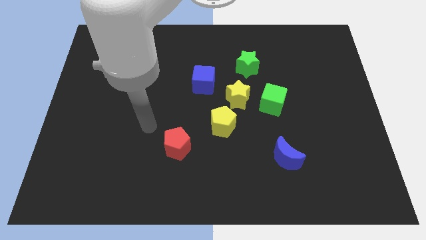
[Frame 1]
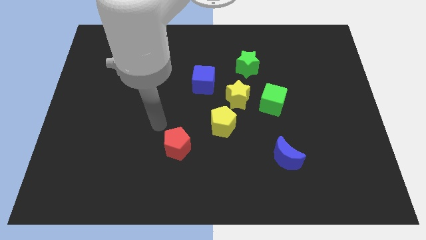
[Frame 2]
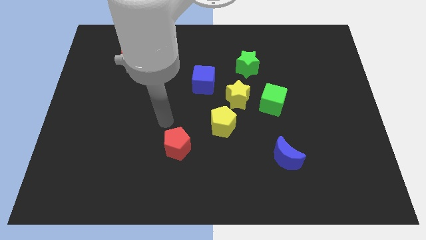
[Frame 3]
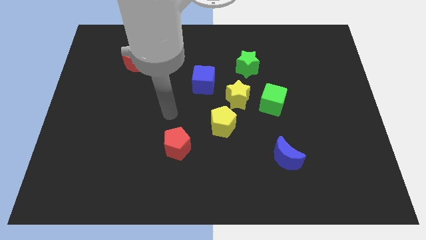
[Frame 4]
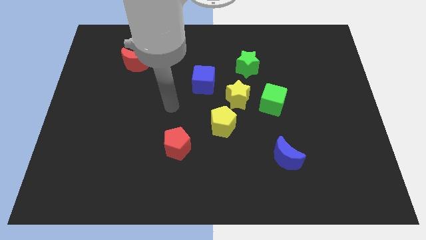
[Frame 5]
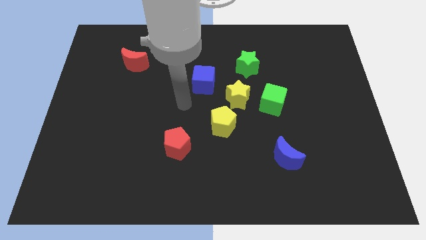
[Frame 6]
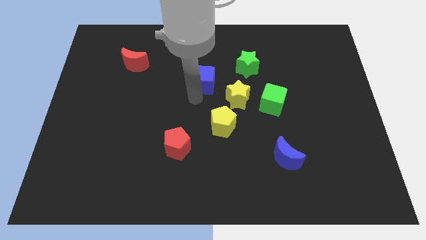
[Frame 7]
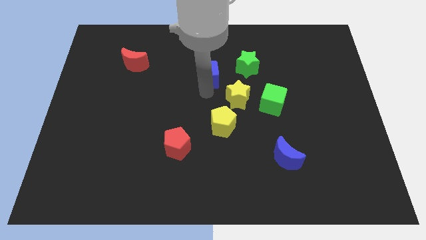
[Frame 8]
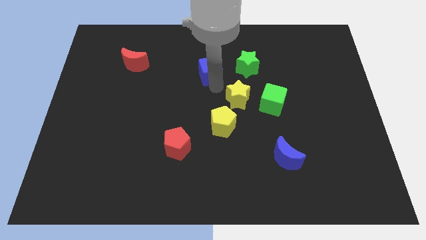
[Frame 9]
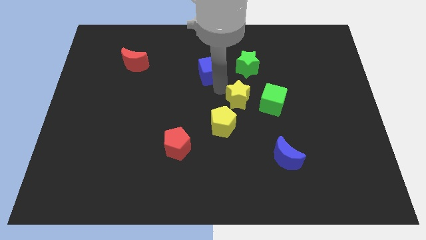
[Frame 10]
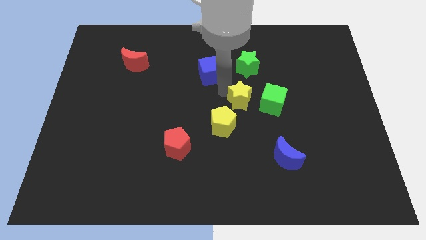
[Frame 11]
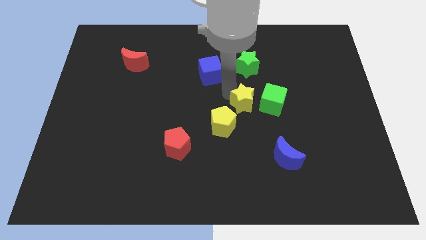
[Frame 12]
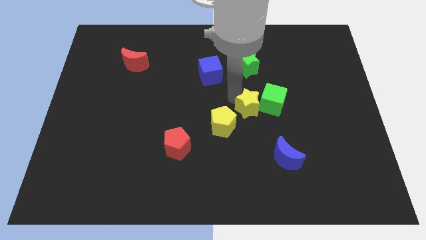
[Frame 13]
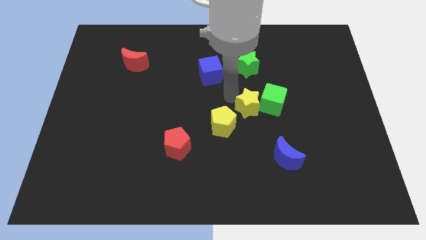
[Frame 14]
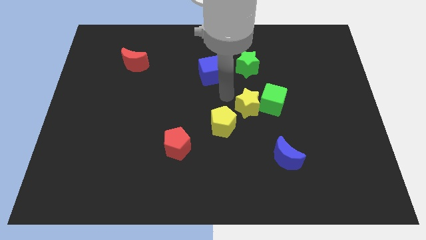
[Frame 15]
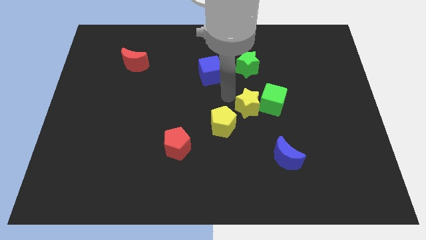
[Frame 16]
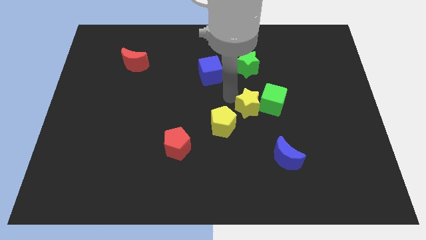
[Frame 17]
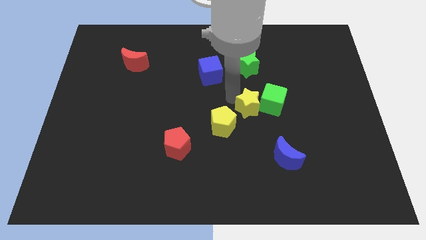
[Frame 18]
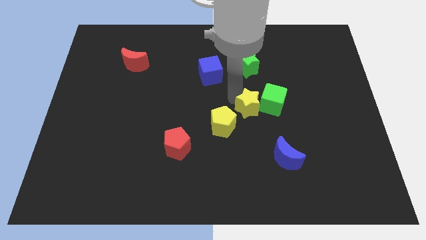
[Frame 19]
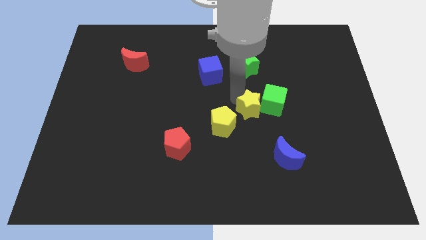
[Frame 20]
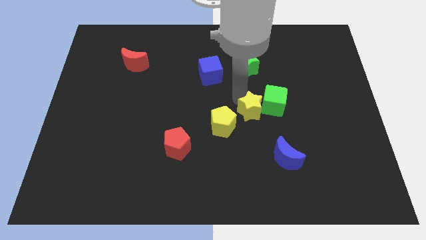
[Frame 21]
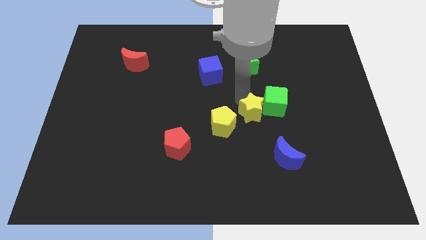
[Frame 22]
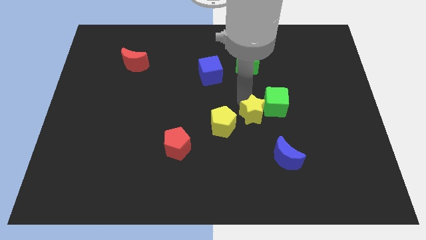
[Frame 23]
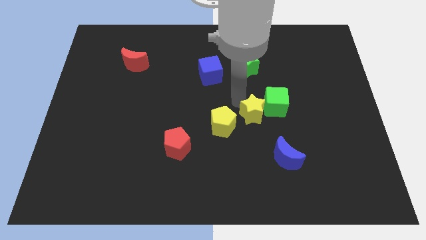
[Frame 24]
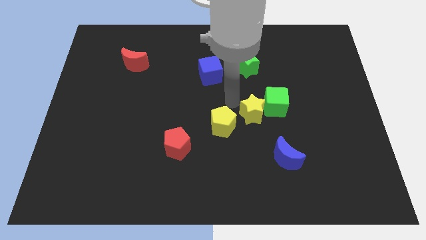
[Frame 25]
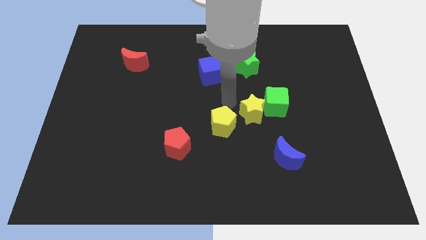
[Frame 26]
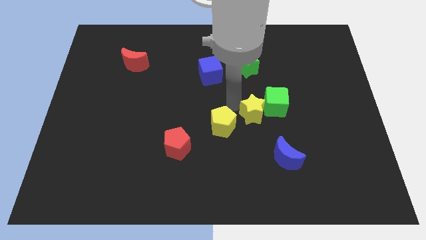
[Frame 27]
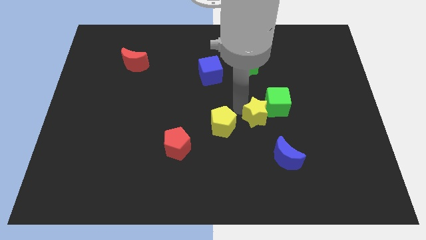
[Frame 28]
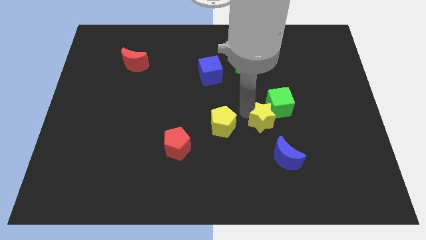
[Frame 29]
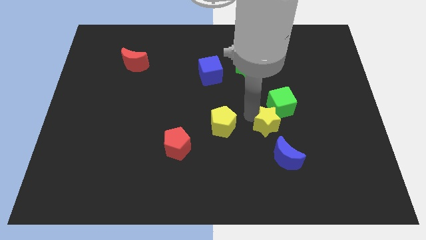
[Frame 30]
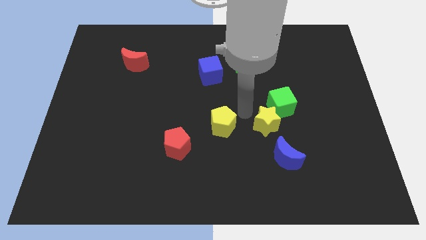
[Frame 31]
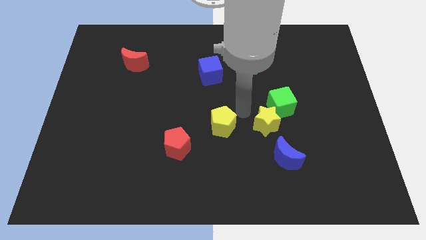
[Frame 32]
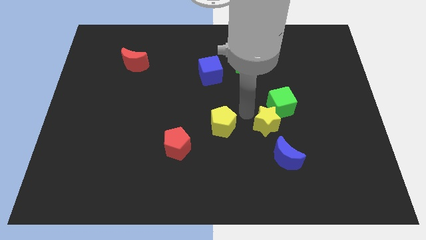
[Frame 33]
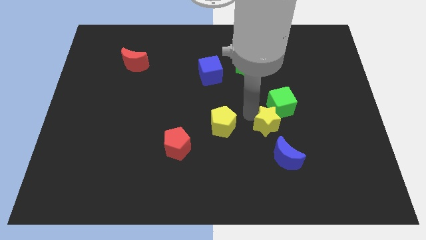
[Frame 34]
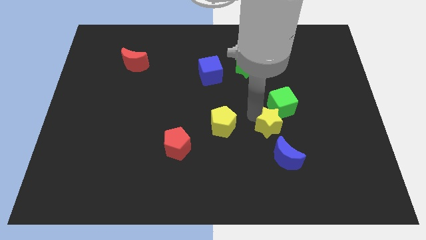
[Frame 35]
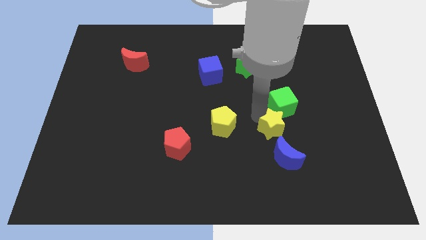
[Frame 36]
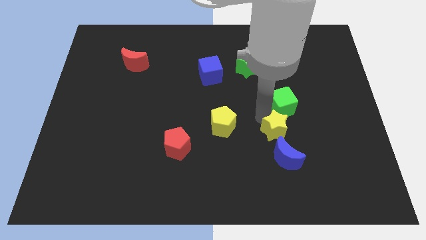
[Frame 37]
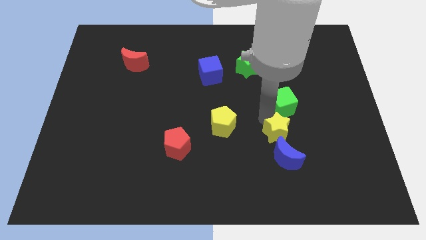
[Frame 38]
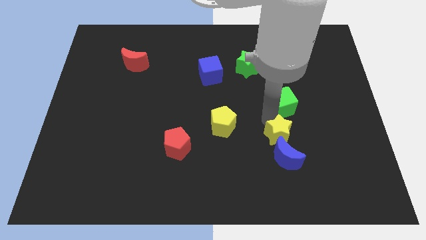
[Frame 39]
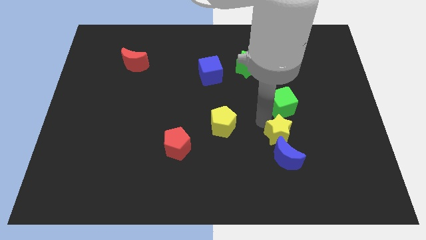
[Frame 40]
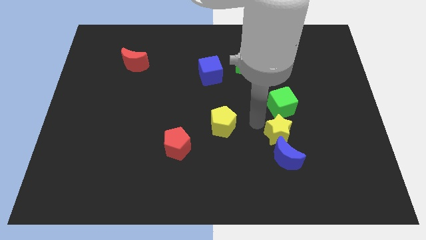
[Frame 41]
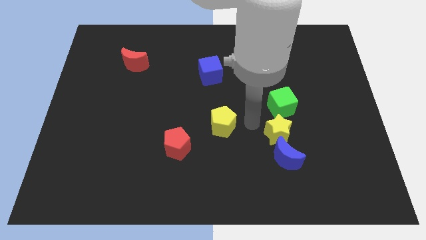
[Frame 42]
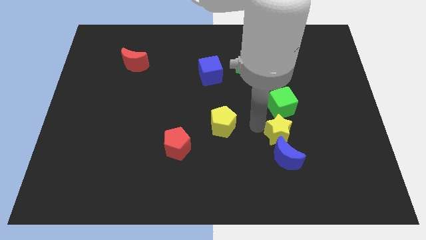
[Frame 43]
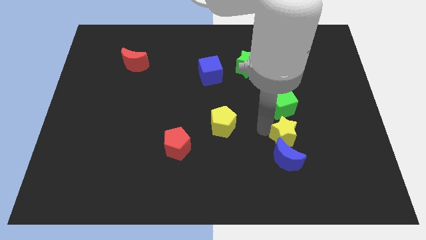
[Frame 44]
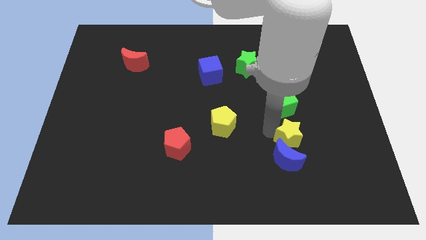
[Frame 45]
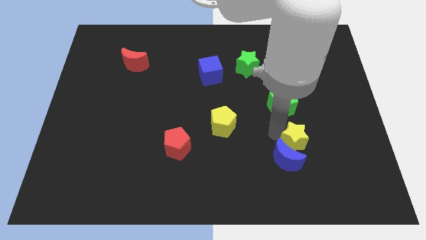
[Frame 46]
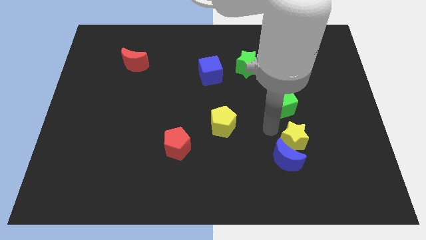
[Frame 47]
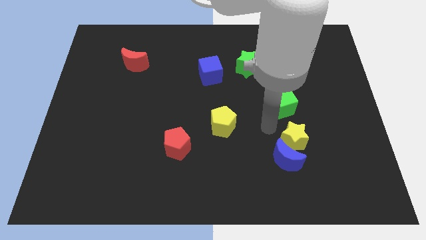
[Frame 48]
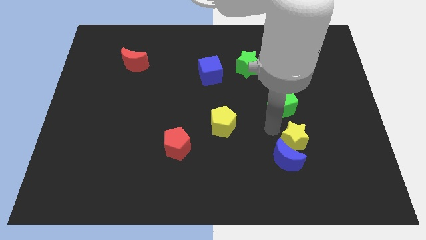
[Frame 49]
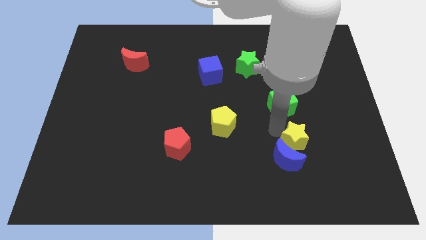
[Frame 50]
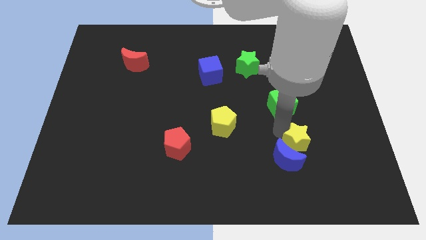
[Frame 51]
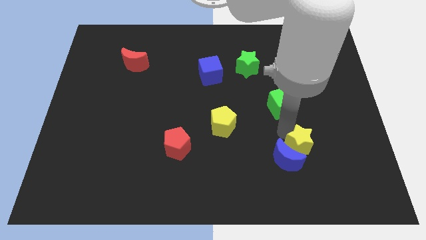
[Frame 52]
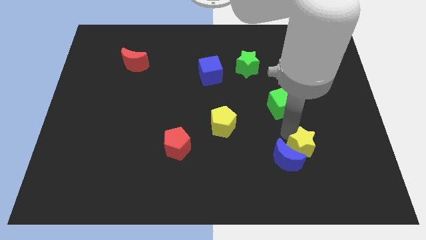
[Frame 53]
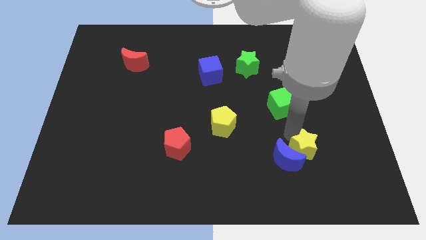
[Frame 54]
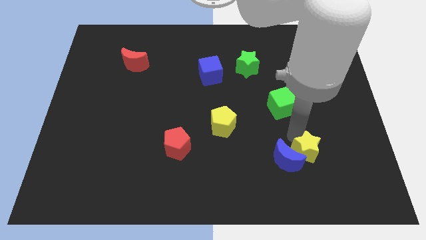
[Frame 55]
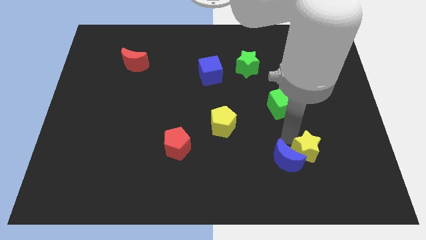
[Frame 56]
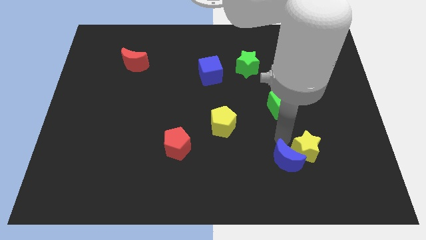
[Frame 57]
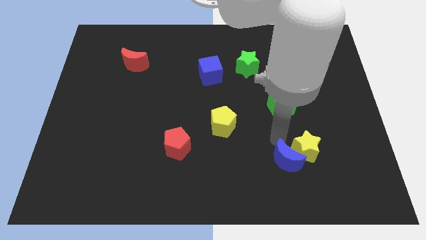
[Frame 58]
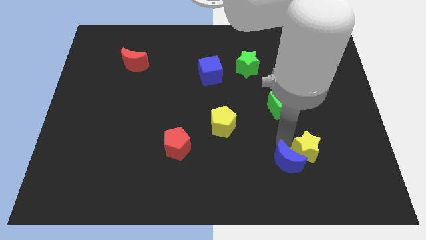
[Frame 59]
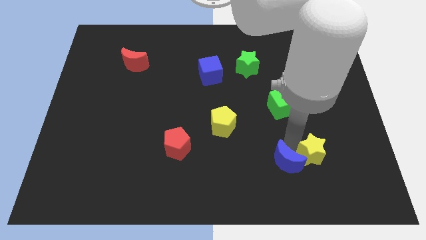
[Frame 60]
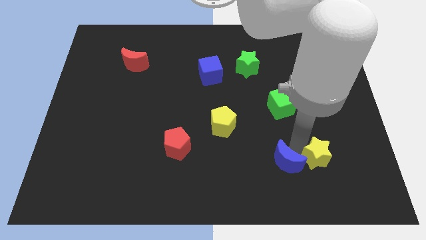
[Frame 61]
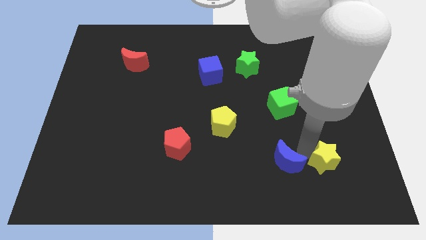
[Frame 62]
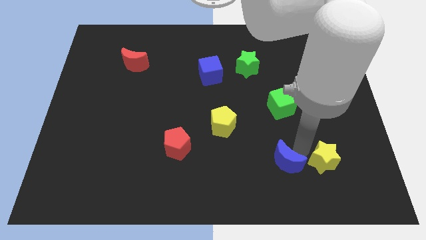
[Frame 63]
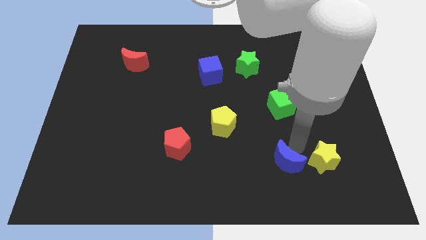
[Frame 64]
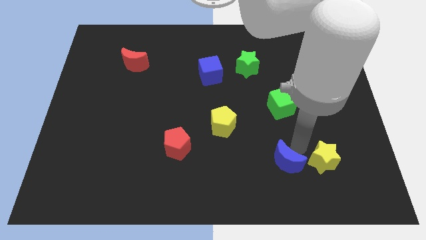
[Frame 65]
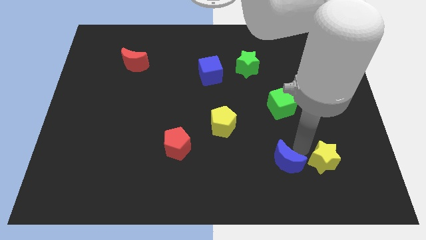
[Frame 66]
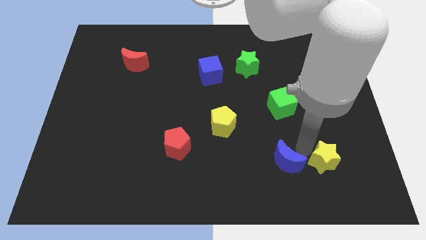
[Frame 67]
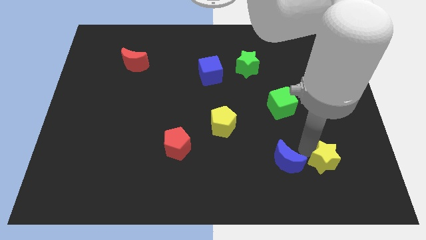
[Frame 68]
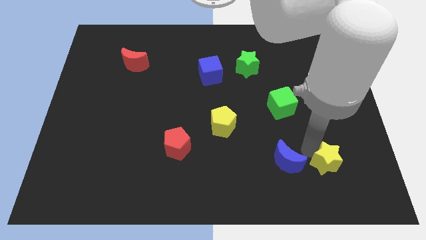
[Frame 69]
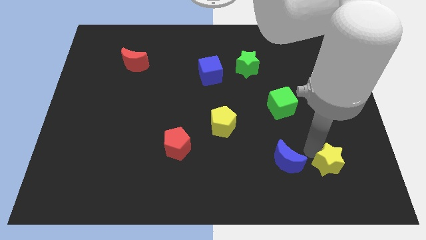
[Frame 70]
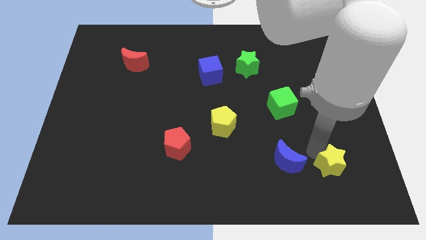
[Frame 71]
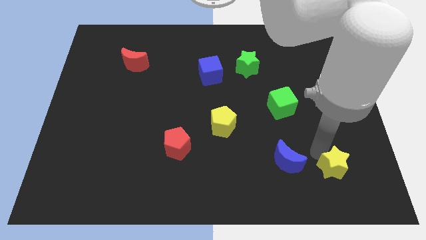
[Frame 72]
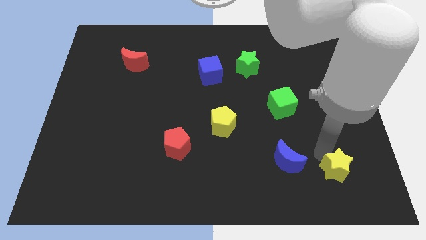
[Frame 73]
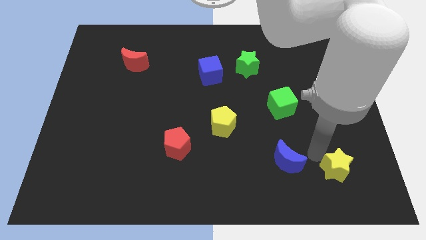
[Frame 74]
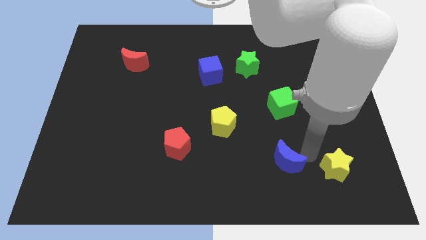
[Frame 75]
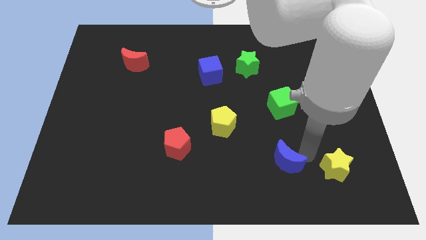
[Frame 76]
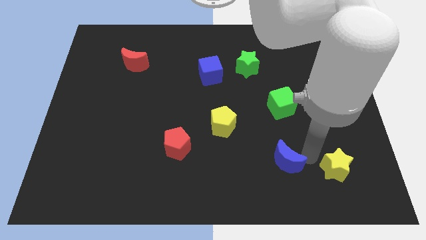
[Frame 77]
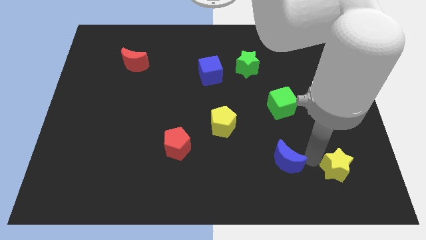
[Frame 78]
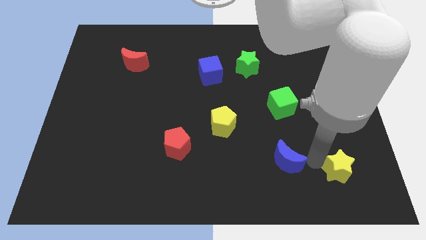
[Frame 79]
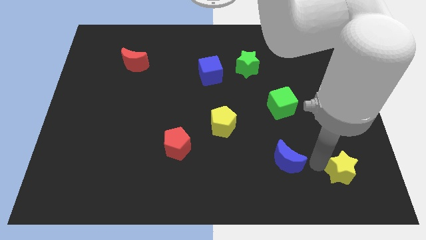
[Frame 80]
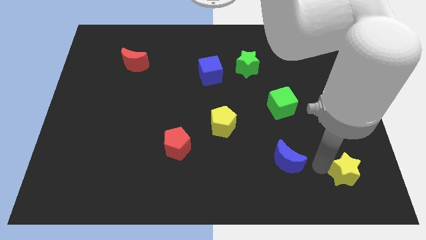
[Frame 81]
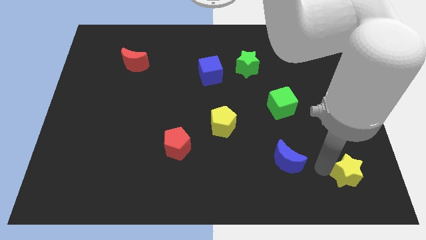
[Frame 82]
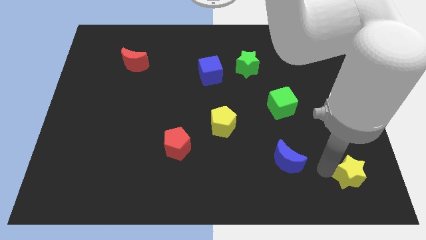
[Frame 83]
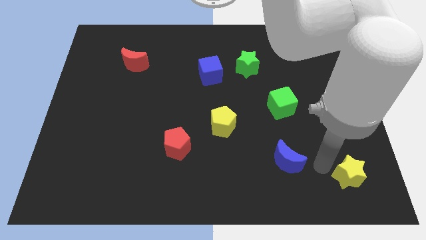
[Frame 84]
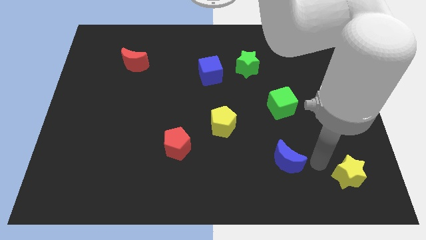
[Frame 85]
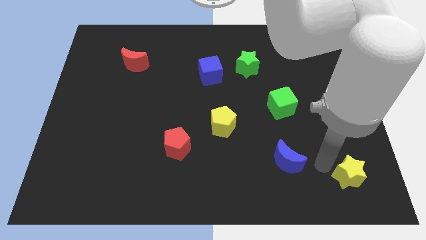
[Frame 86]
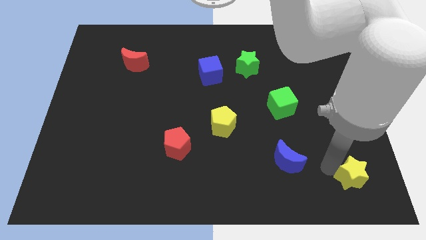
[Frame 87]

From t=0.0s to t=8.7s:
move the yellow star to the lower right corner
